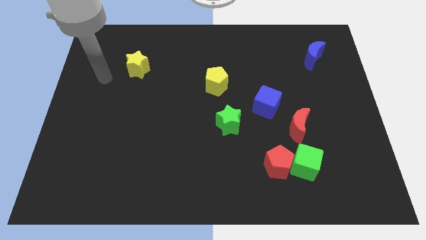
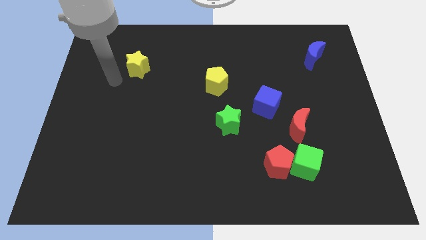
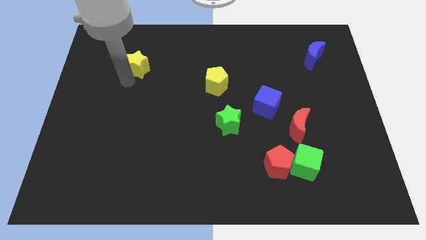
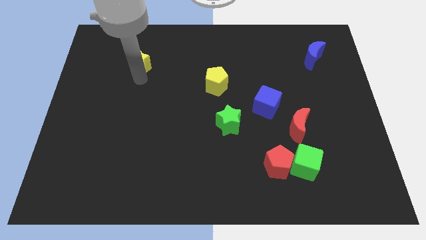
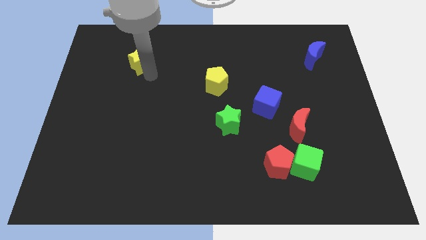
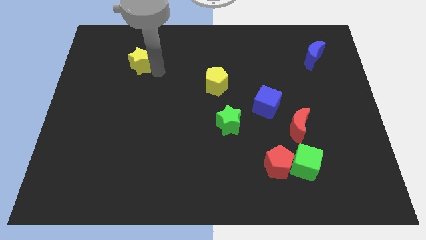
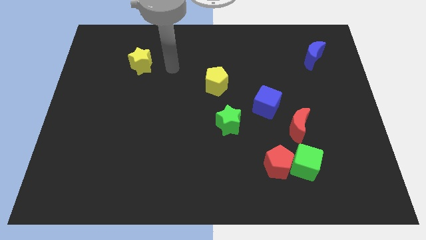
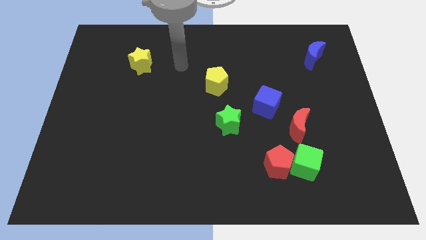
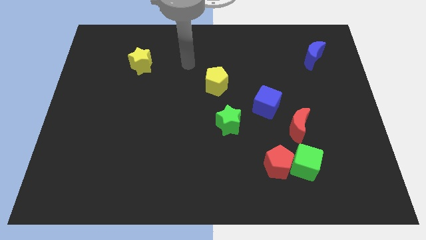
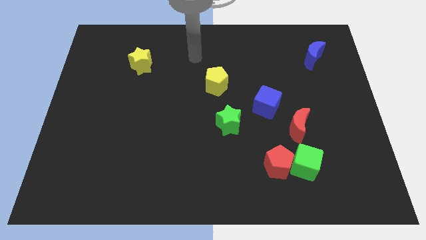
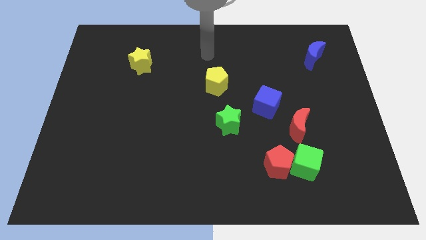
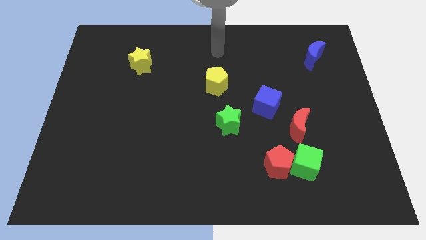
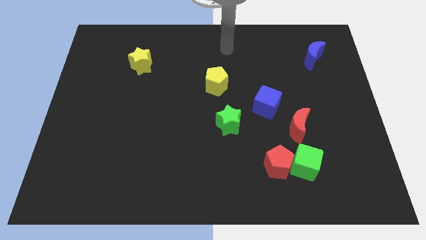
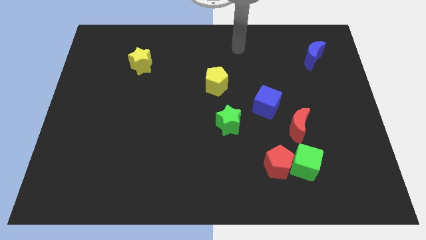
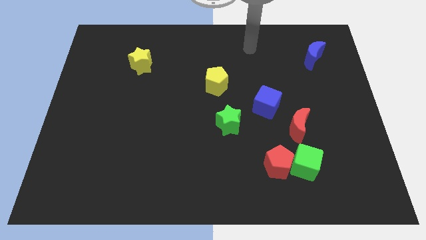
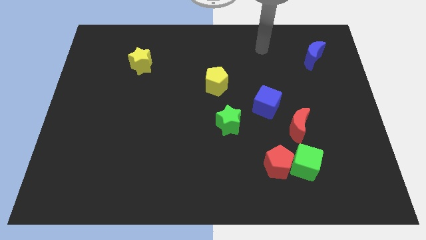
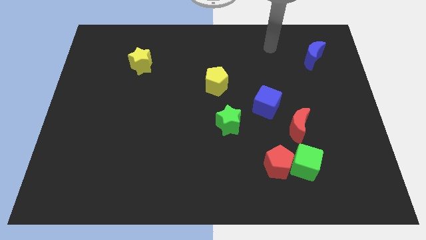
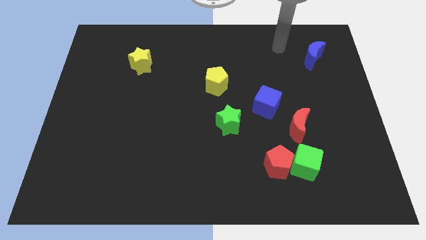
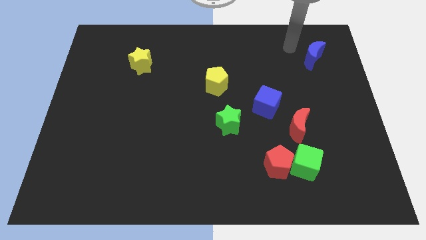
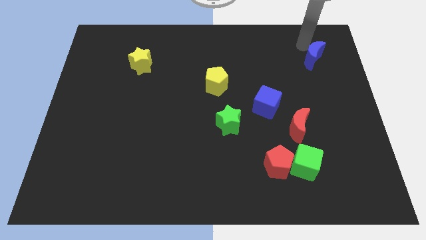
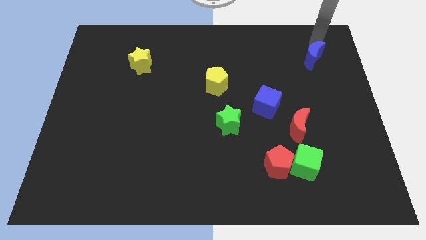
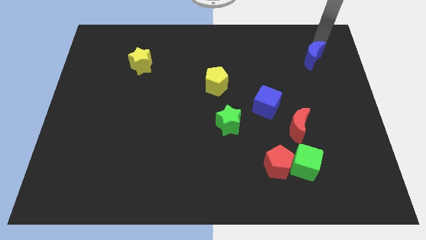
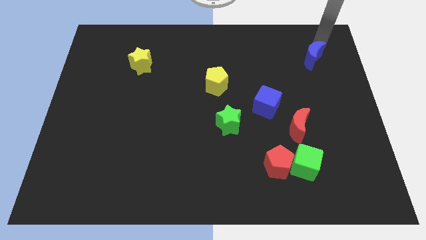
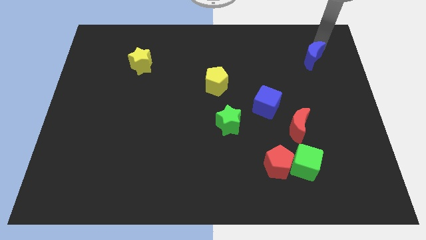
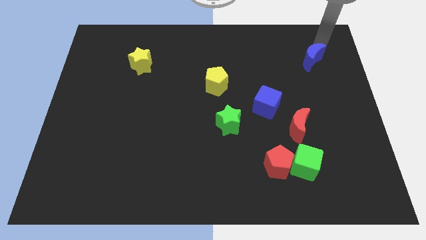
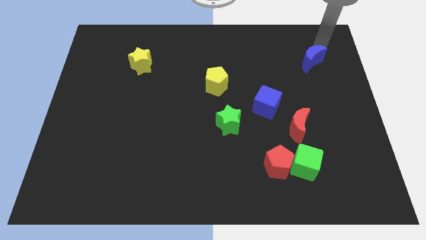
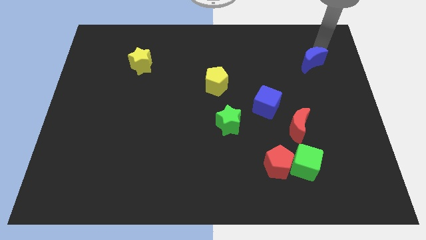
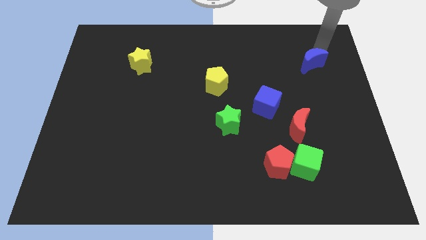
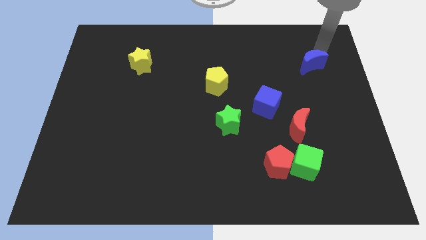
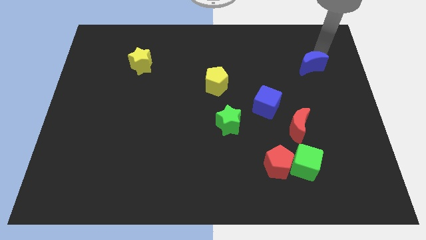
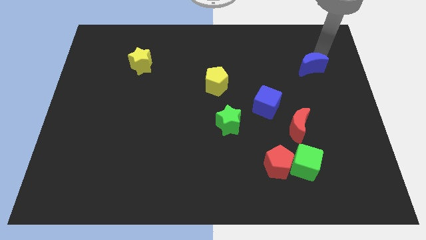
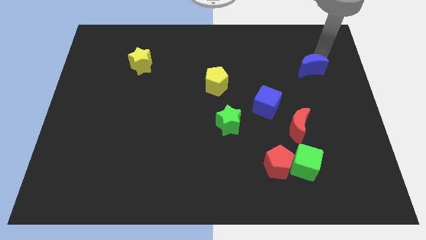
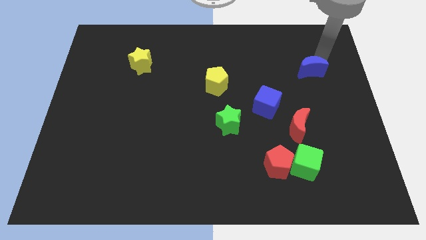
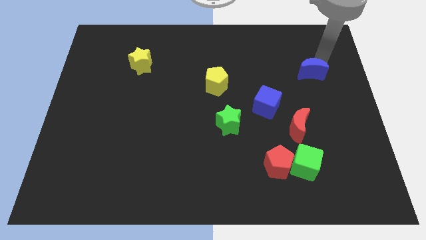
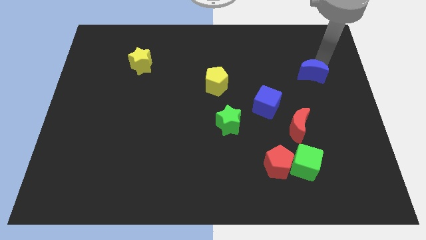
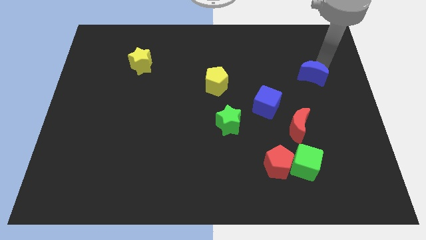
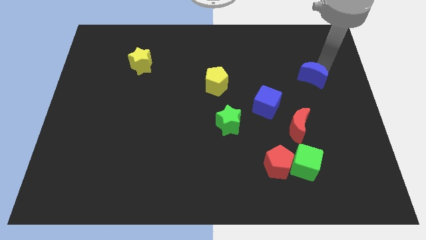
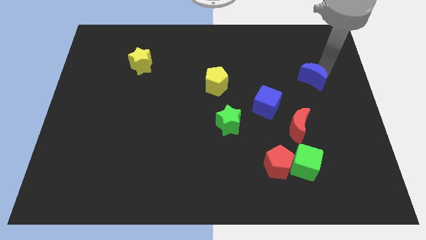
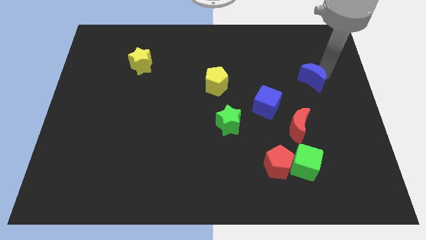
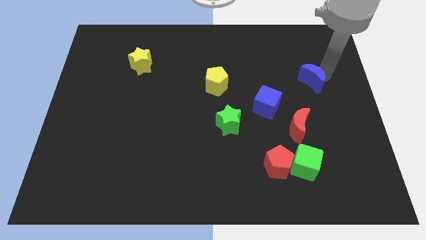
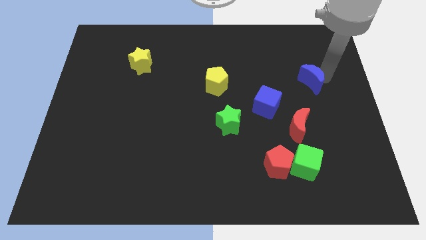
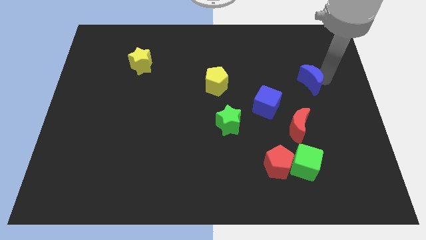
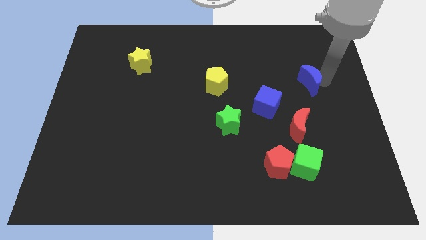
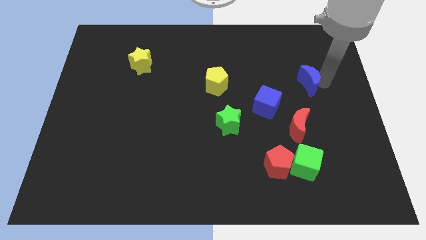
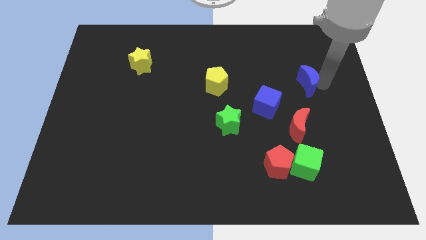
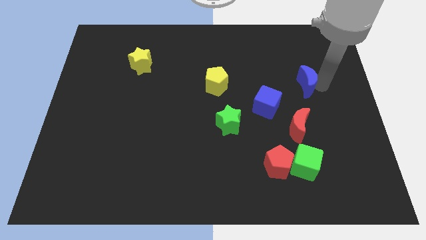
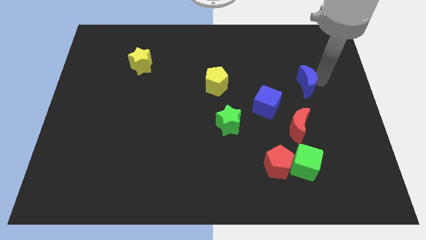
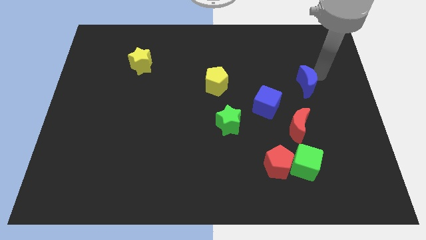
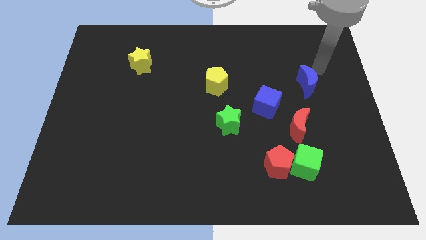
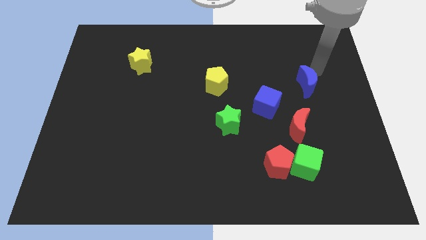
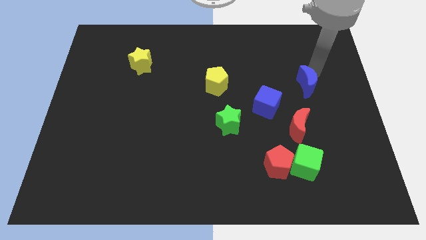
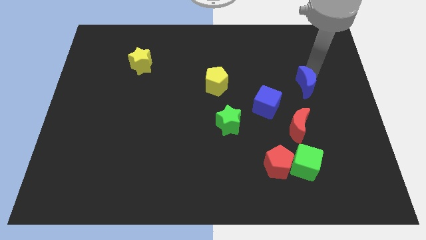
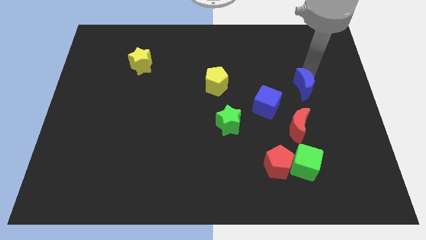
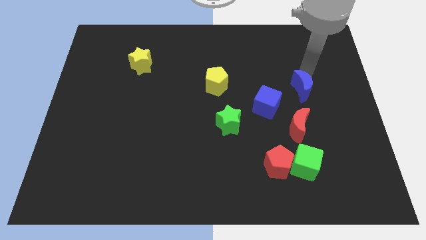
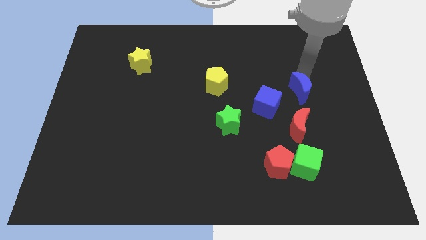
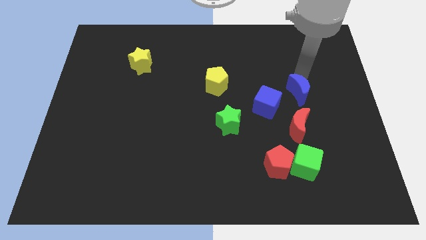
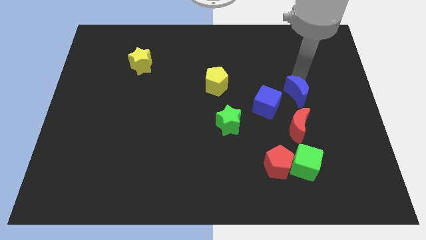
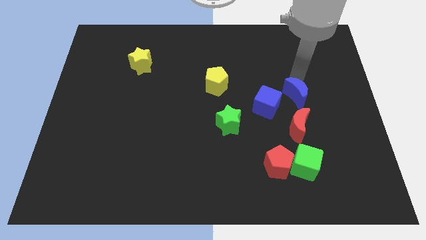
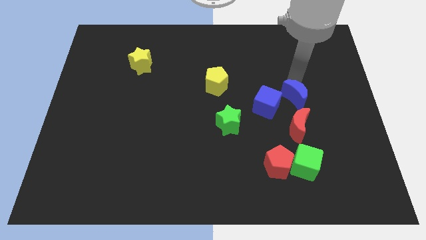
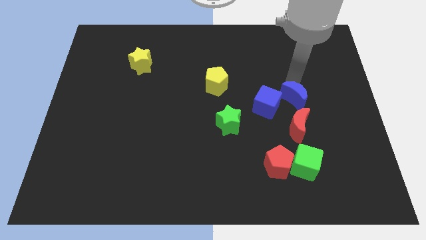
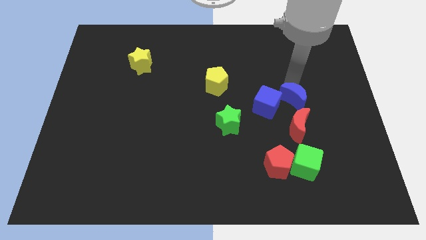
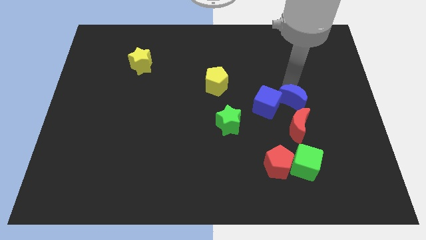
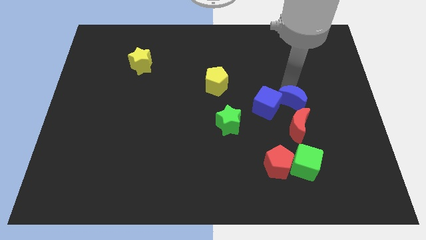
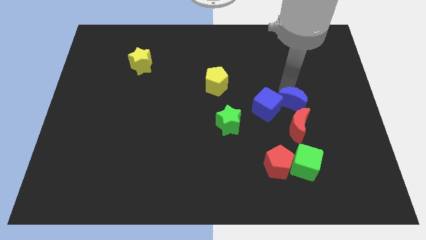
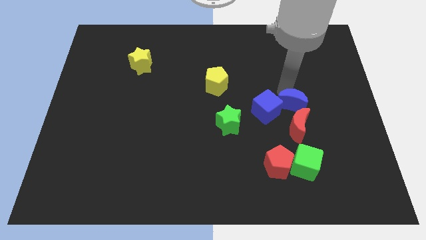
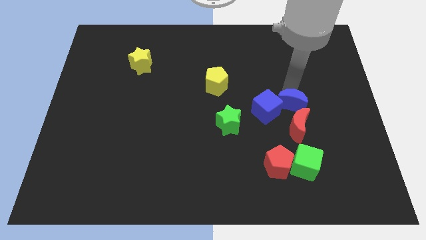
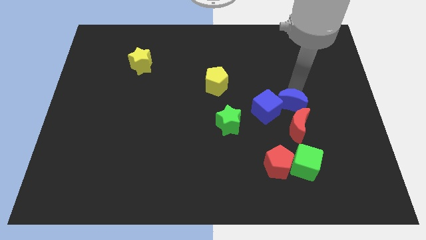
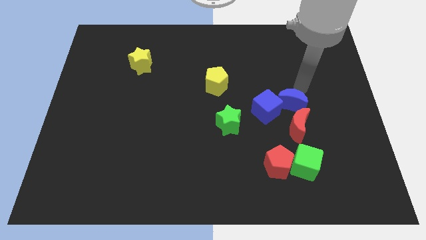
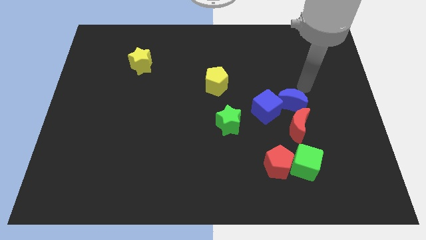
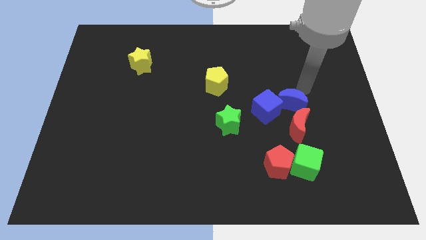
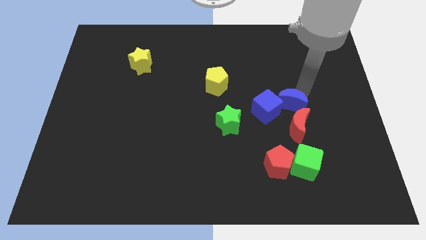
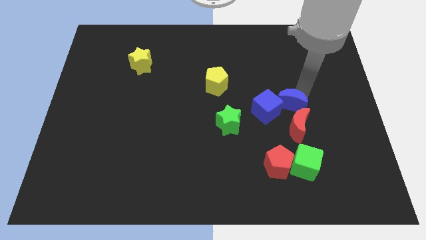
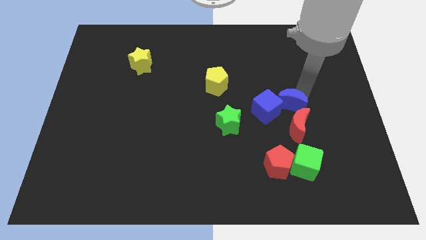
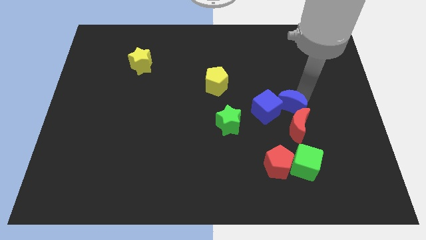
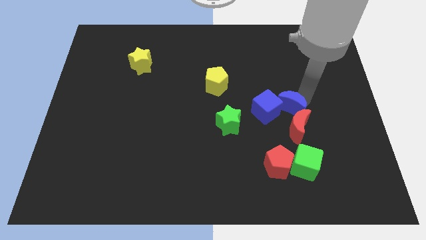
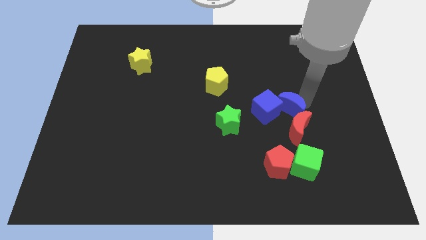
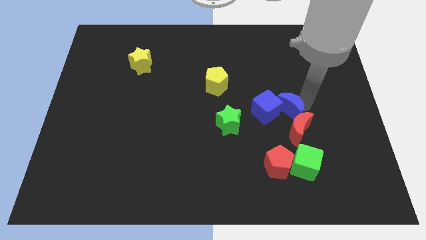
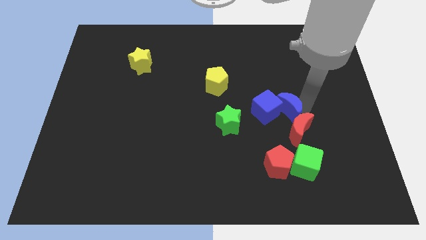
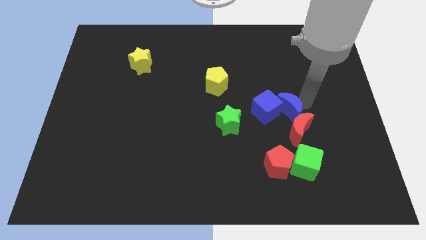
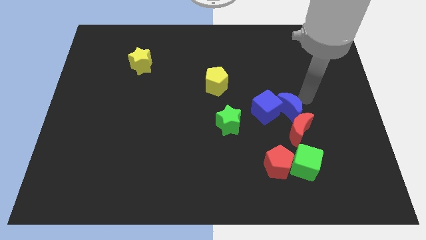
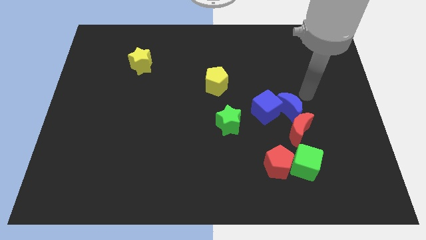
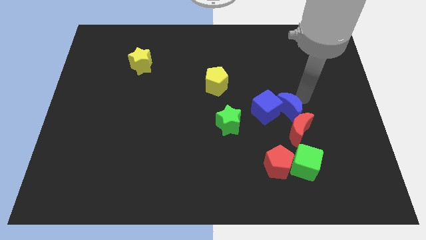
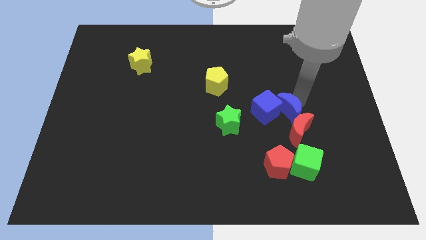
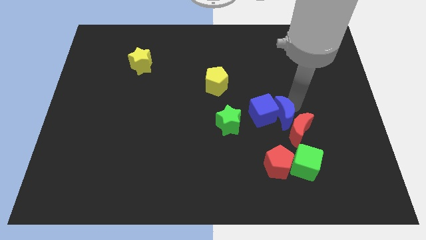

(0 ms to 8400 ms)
slide the blue moon to the top side of the red pentagon
